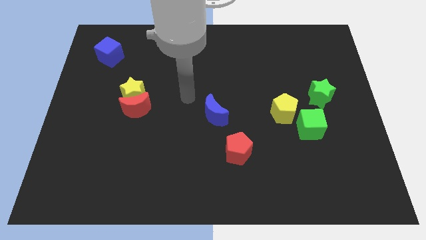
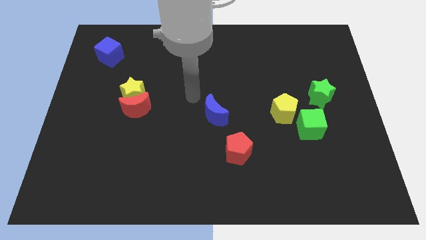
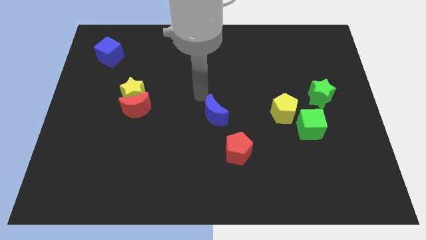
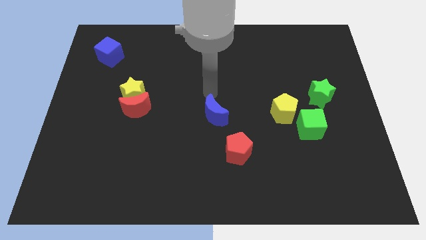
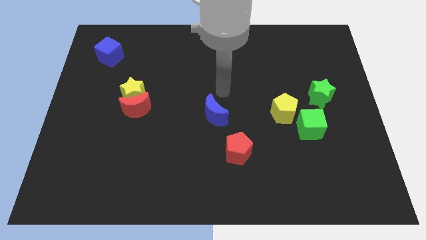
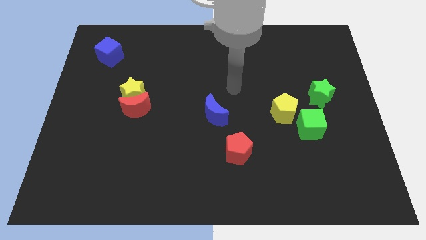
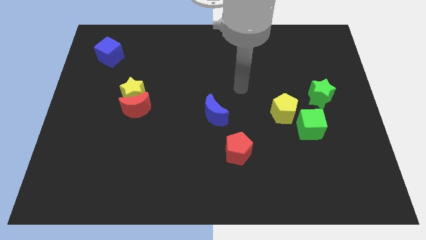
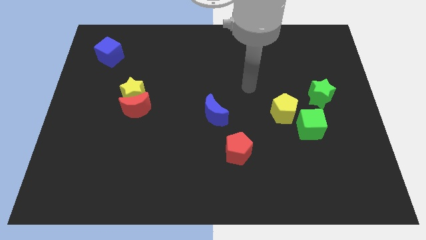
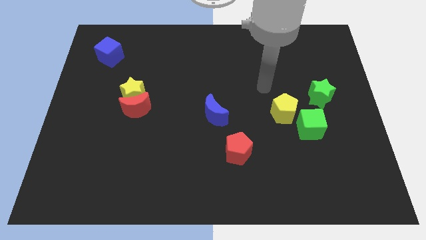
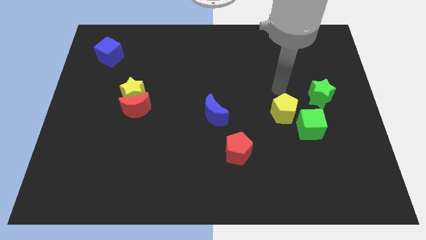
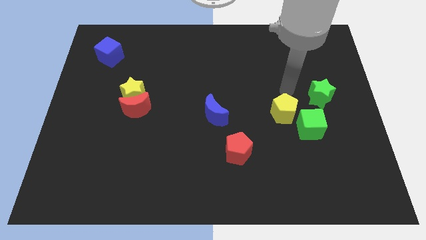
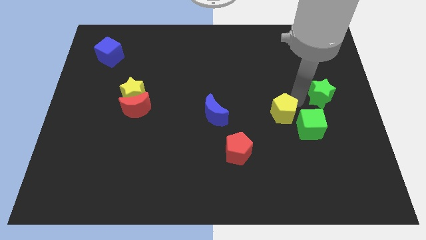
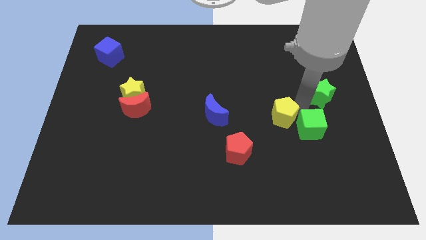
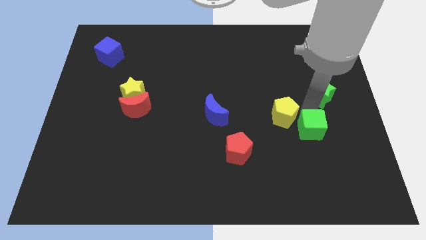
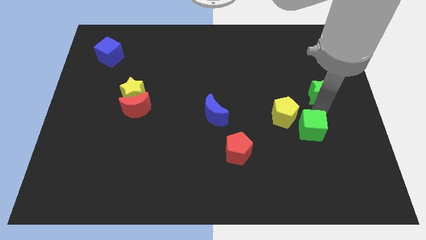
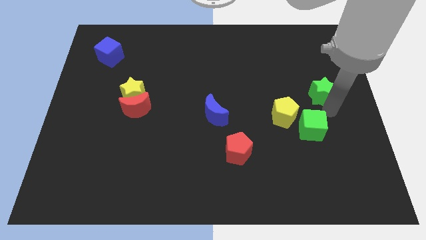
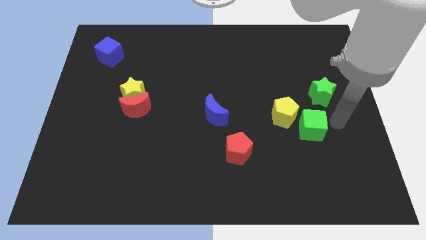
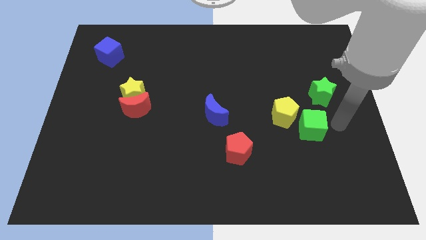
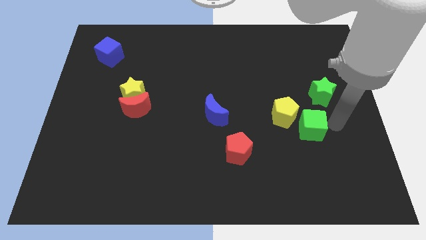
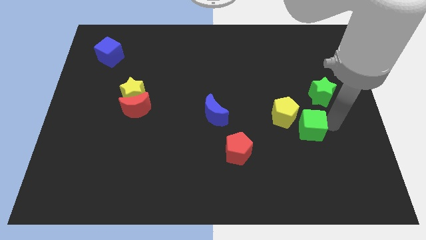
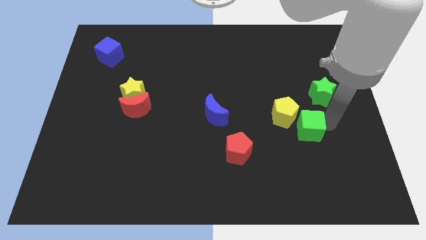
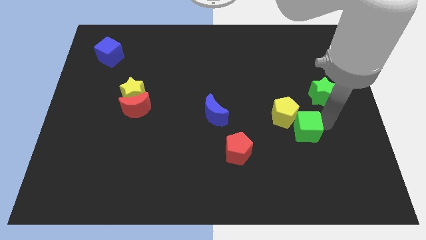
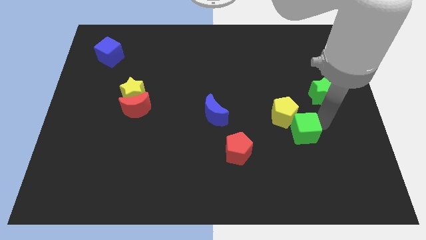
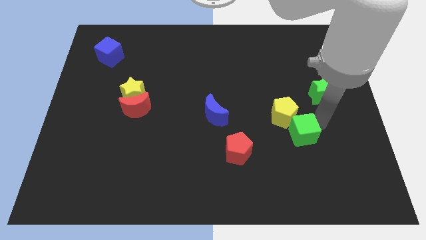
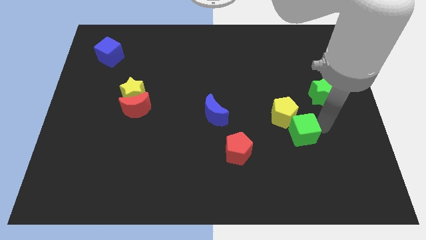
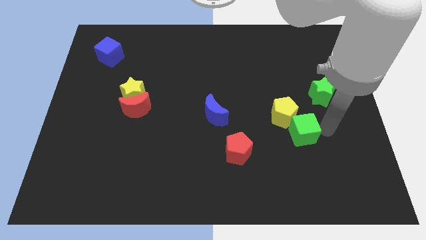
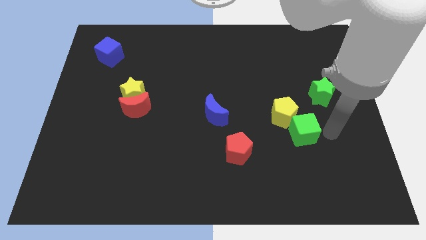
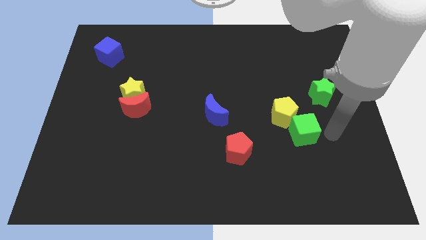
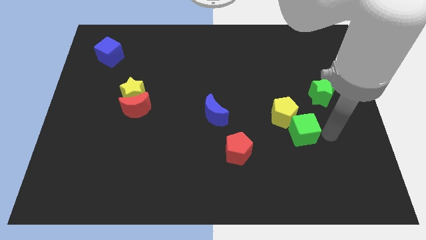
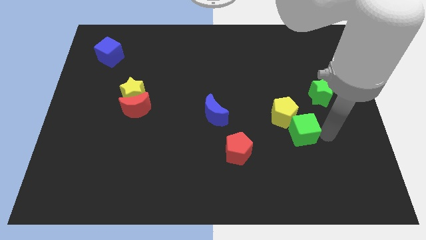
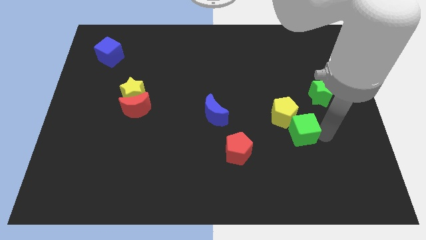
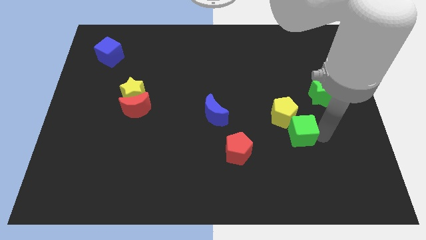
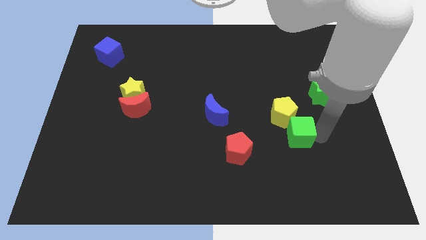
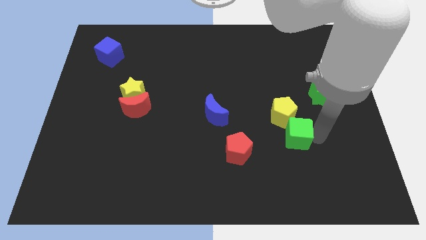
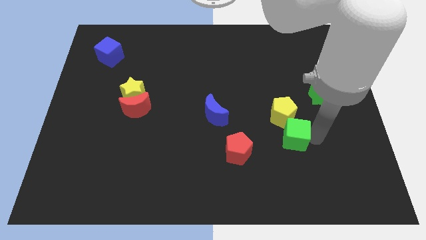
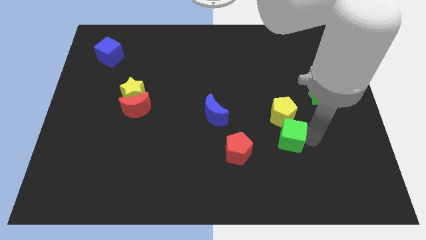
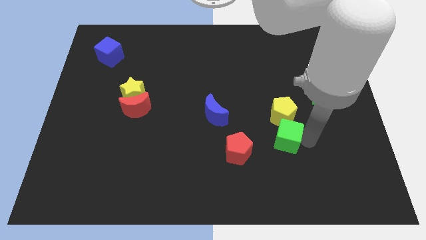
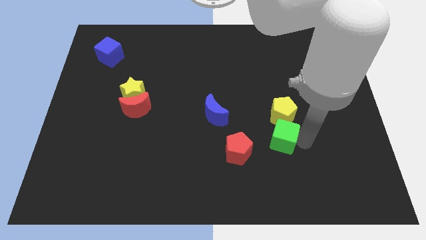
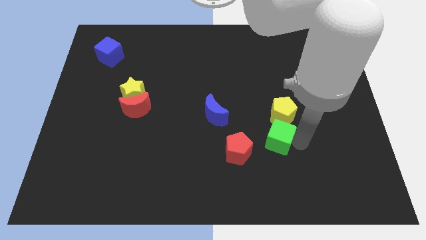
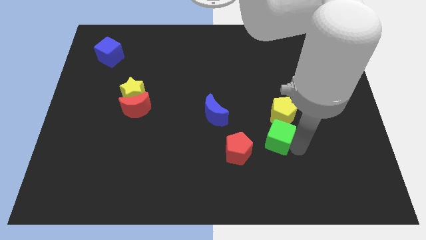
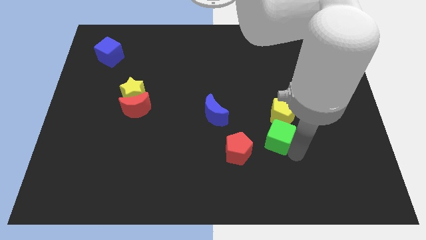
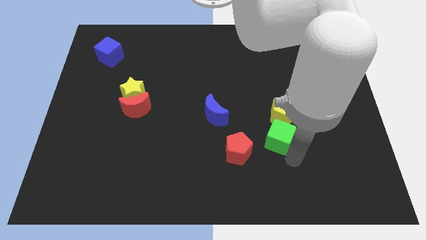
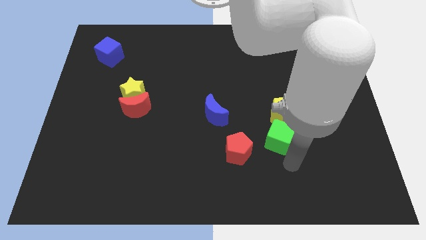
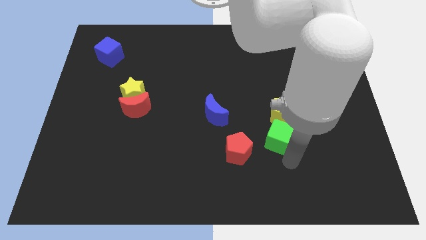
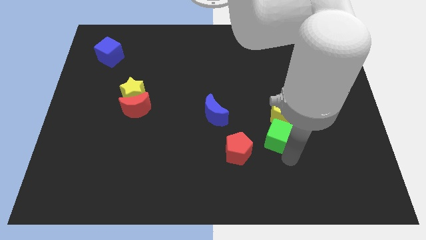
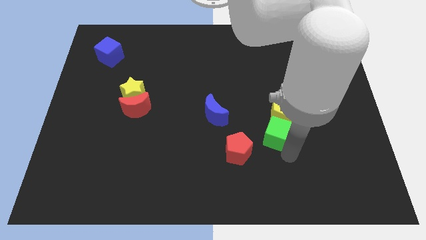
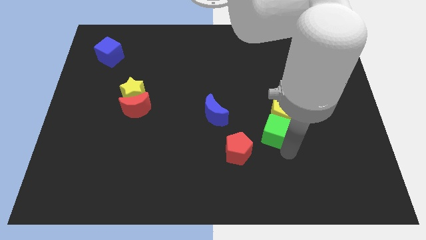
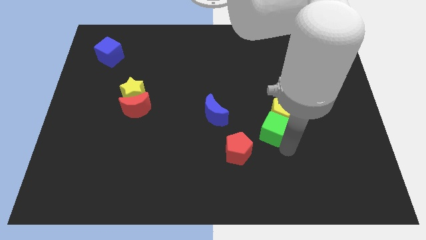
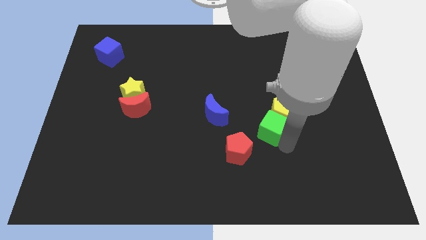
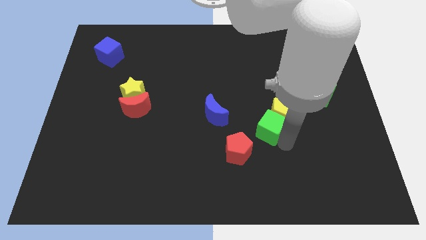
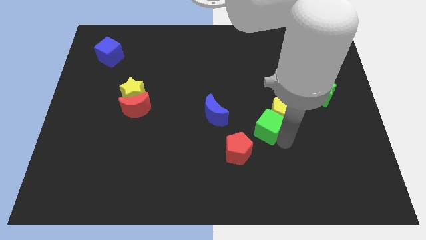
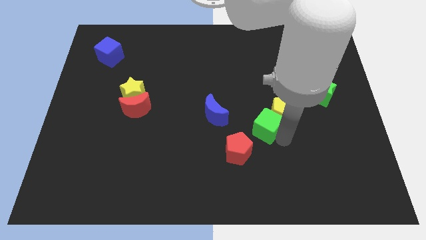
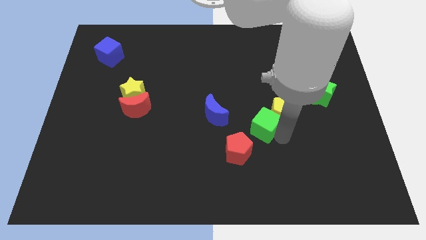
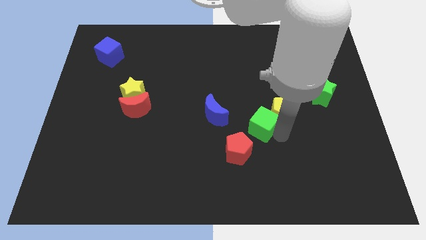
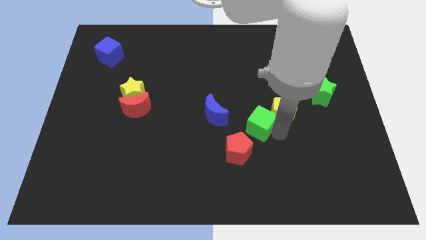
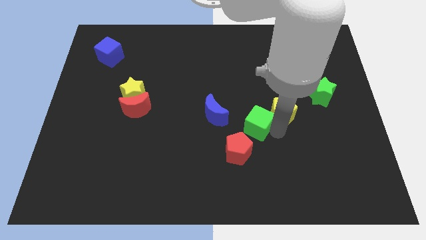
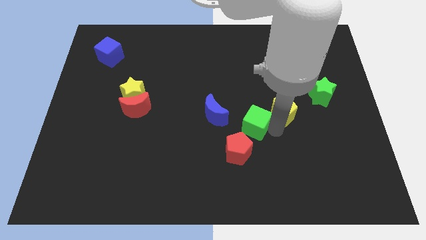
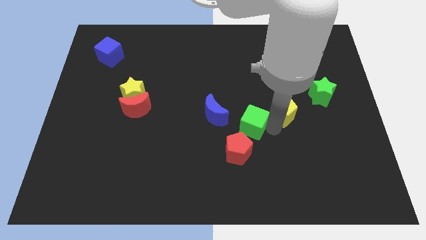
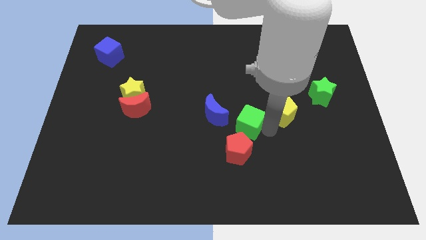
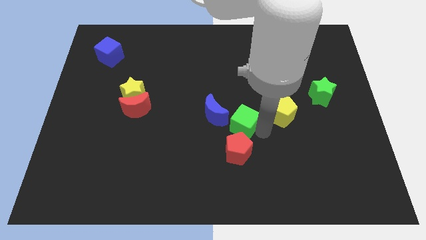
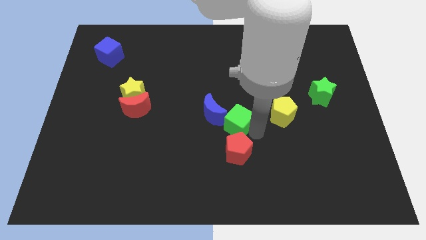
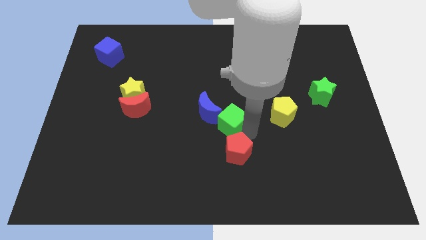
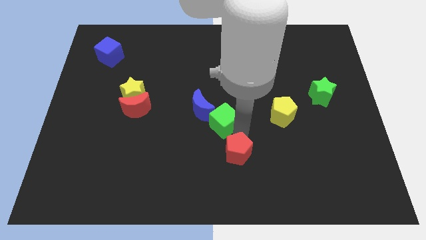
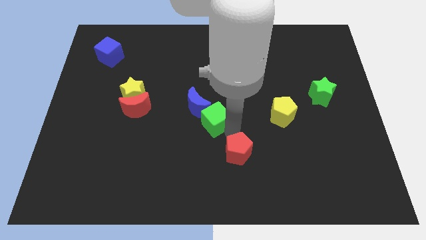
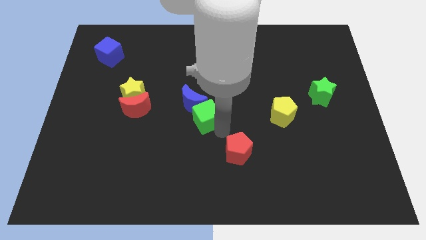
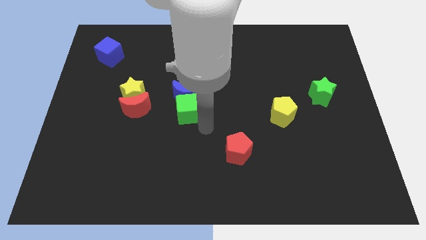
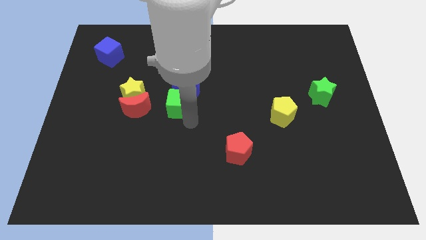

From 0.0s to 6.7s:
put the green cube to the right of the yellow star
